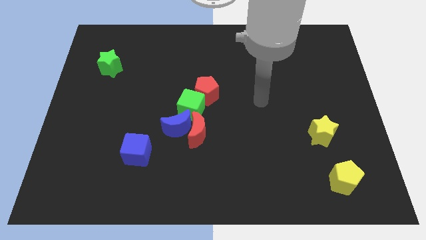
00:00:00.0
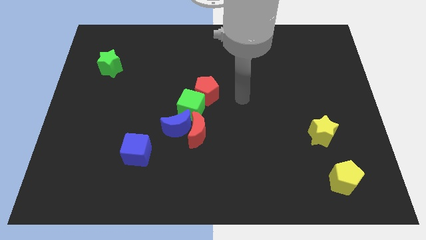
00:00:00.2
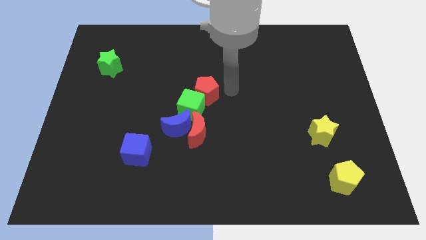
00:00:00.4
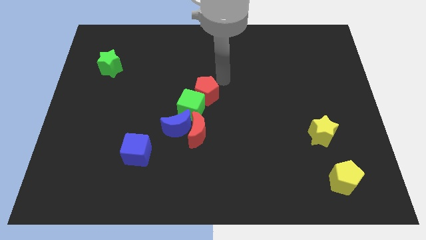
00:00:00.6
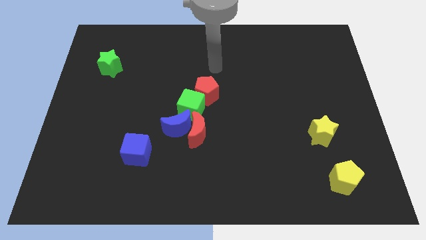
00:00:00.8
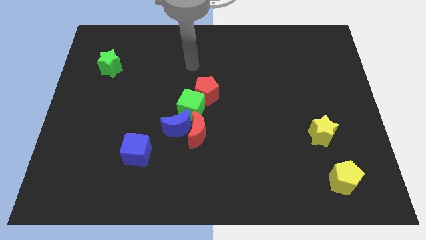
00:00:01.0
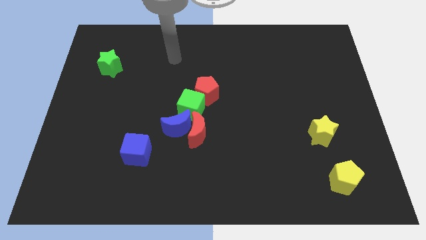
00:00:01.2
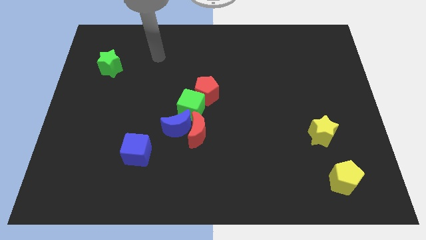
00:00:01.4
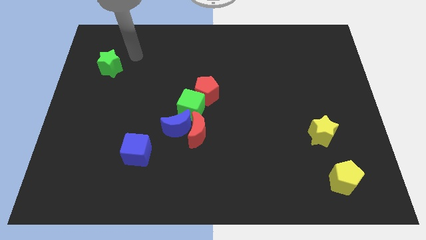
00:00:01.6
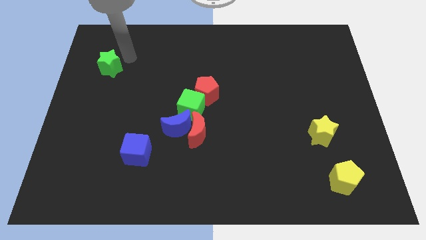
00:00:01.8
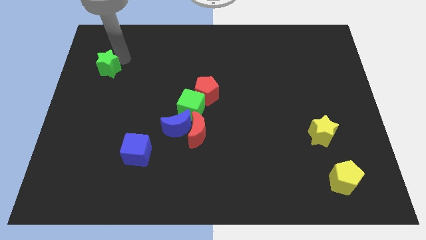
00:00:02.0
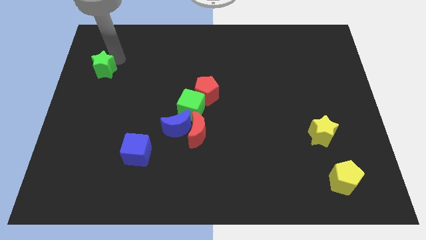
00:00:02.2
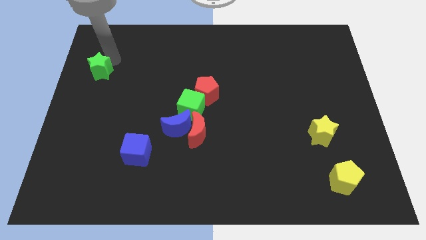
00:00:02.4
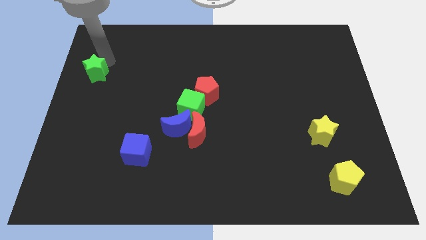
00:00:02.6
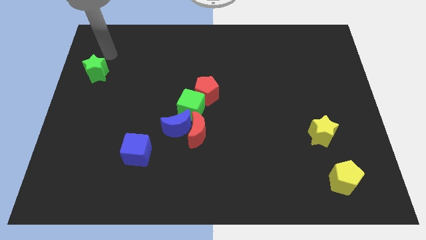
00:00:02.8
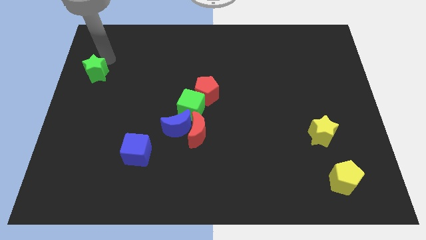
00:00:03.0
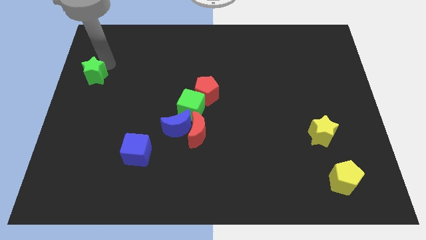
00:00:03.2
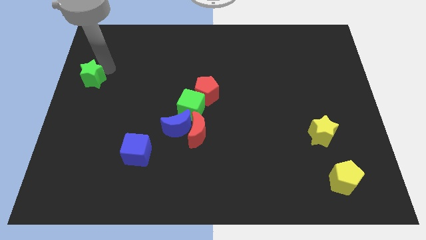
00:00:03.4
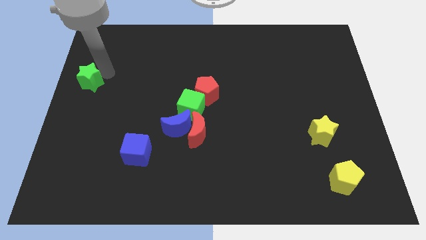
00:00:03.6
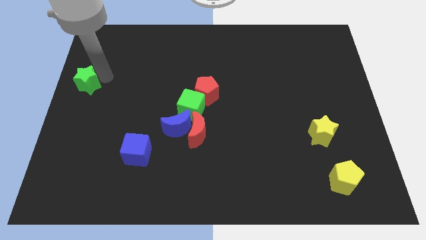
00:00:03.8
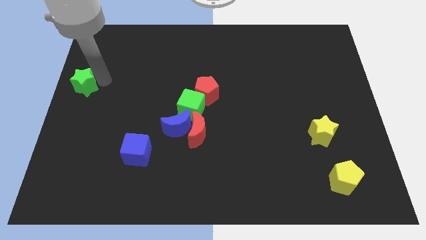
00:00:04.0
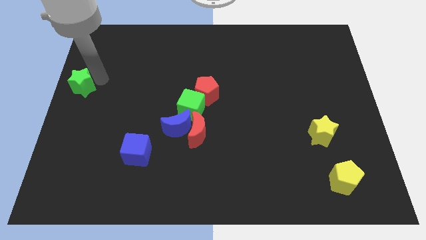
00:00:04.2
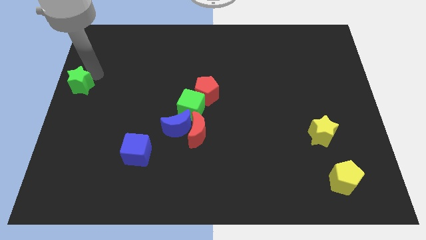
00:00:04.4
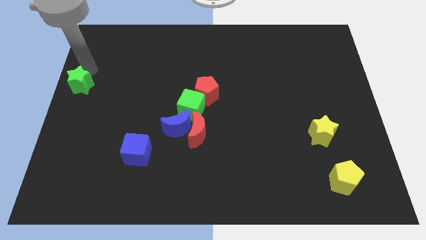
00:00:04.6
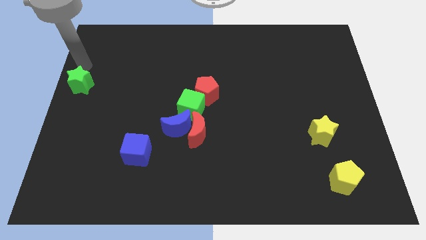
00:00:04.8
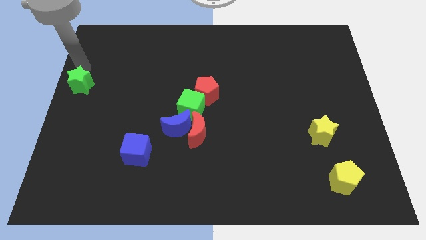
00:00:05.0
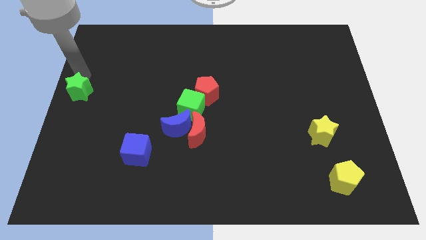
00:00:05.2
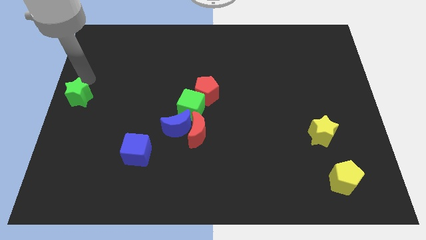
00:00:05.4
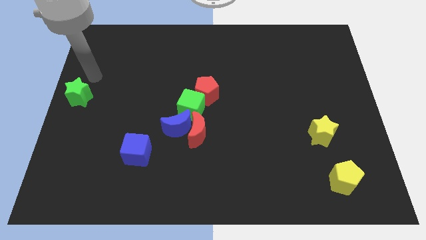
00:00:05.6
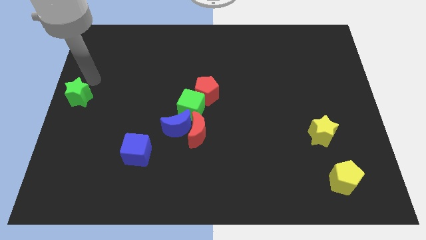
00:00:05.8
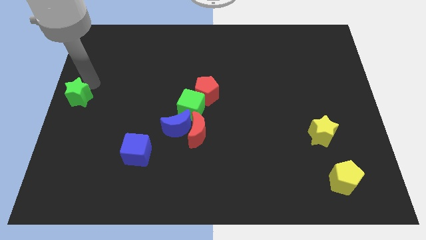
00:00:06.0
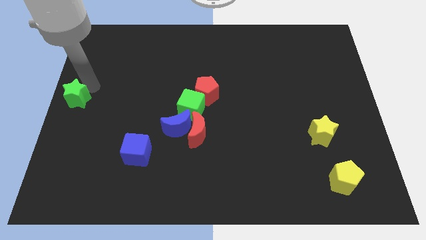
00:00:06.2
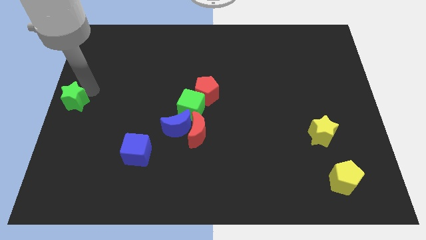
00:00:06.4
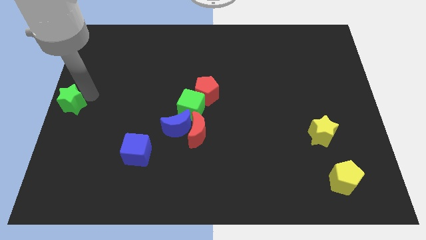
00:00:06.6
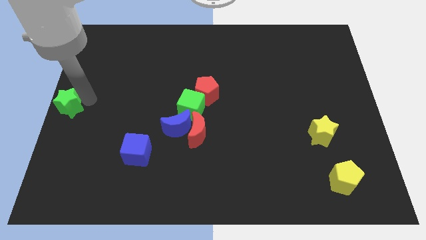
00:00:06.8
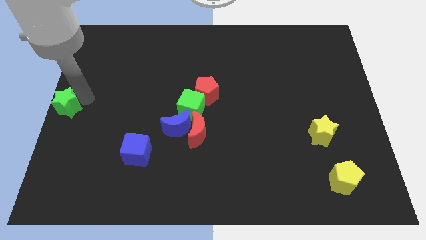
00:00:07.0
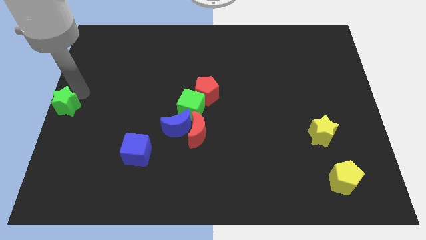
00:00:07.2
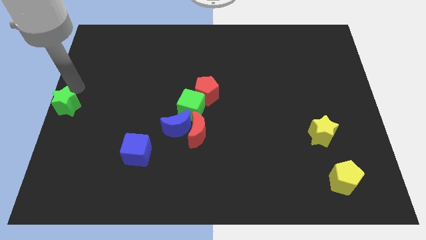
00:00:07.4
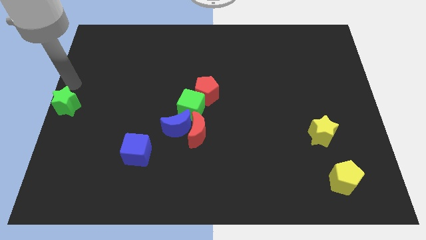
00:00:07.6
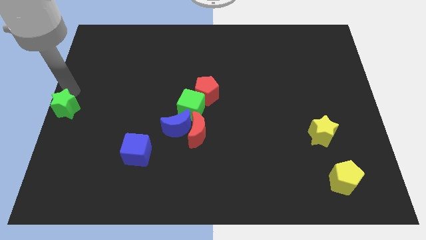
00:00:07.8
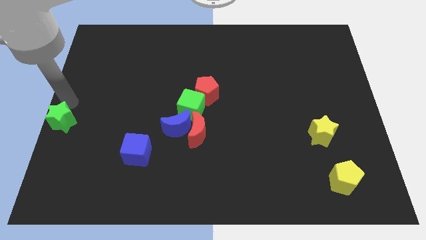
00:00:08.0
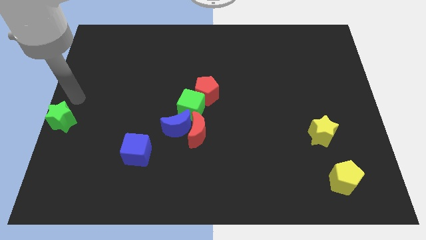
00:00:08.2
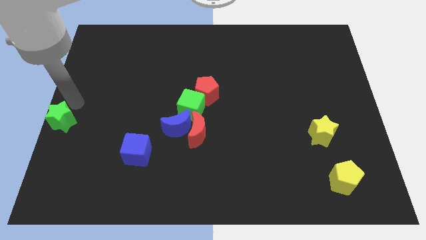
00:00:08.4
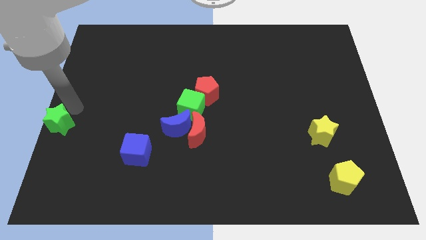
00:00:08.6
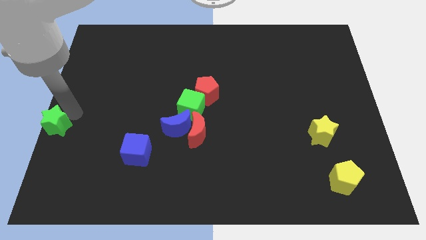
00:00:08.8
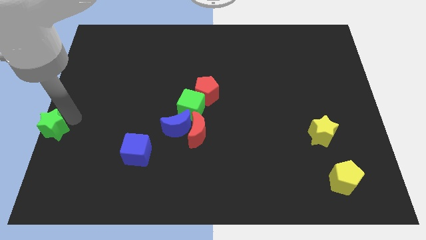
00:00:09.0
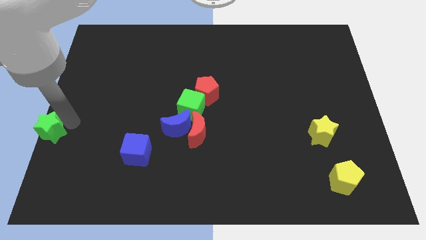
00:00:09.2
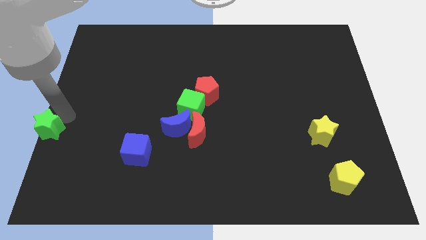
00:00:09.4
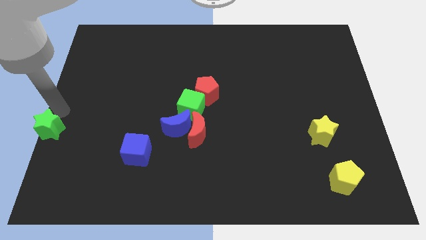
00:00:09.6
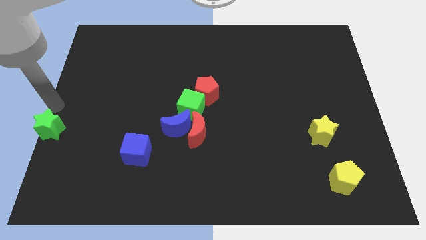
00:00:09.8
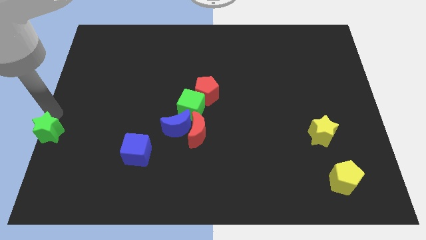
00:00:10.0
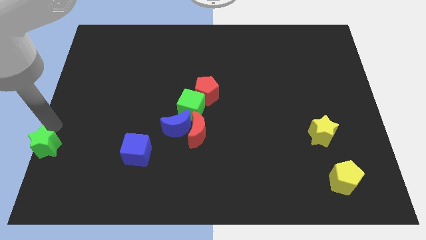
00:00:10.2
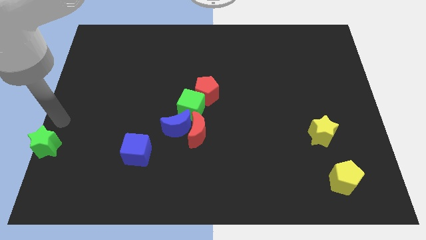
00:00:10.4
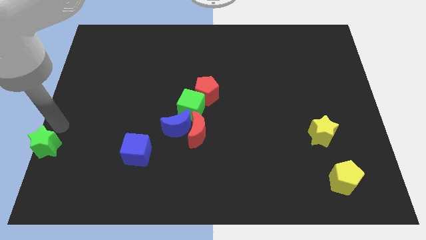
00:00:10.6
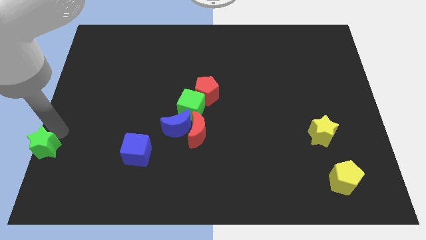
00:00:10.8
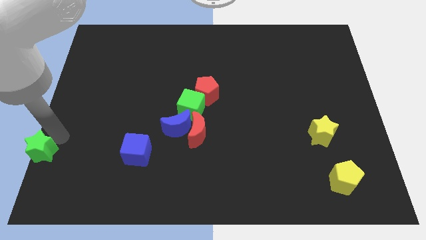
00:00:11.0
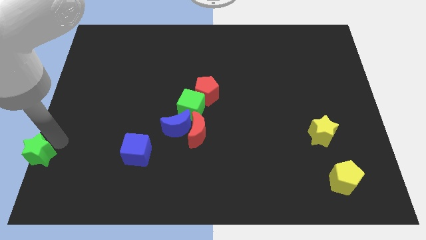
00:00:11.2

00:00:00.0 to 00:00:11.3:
move the green star to the lower left corner
